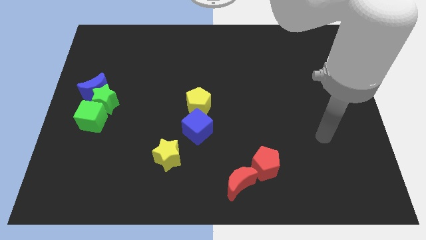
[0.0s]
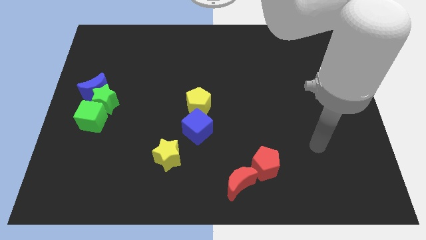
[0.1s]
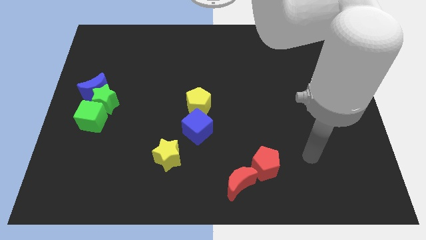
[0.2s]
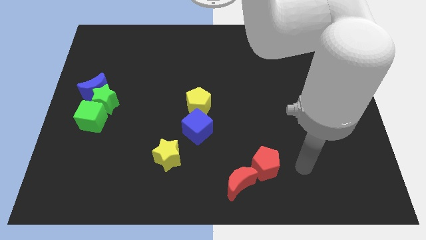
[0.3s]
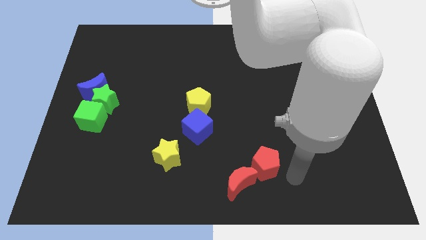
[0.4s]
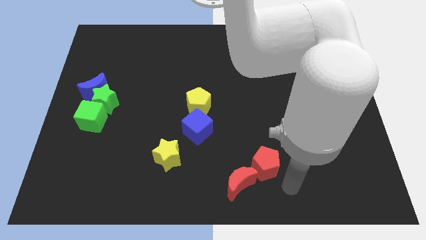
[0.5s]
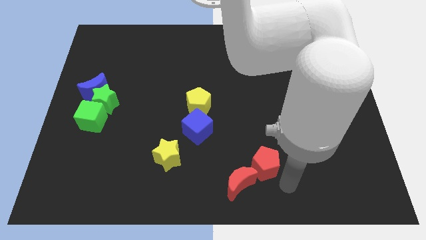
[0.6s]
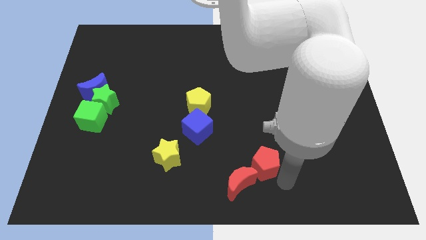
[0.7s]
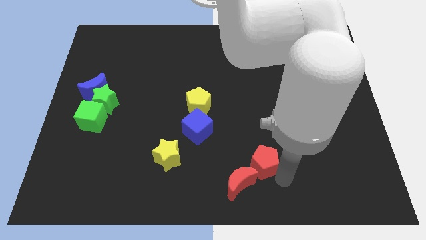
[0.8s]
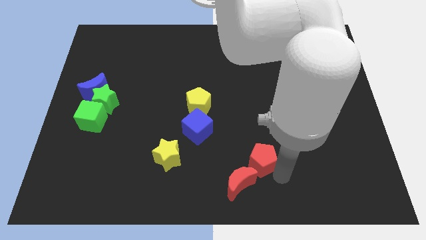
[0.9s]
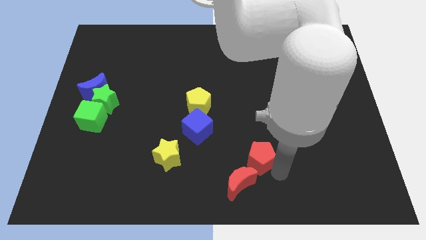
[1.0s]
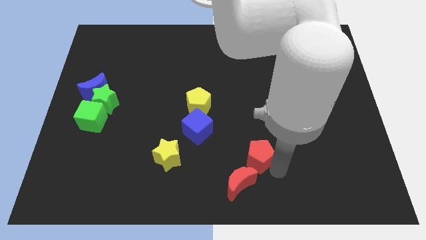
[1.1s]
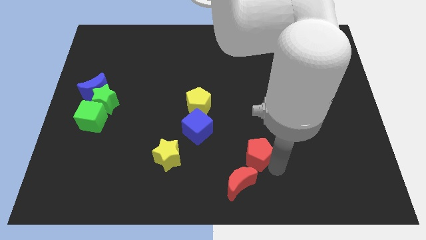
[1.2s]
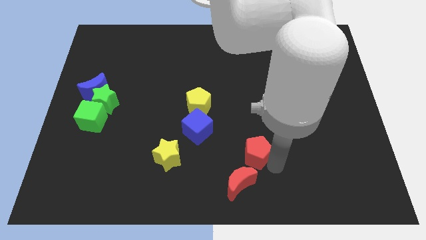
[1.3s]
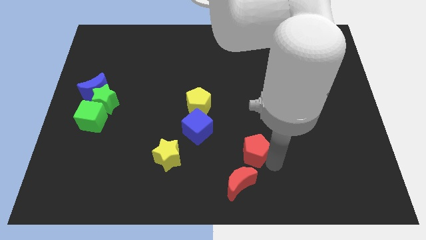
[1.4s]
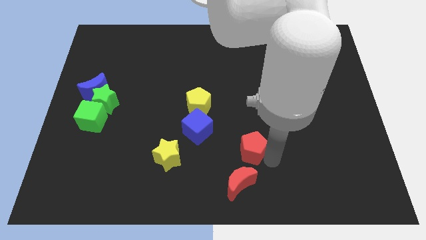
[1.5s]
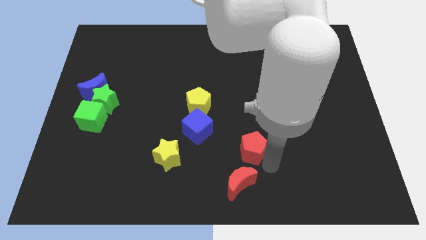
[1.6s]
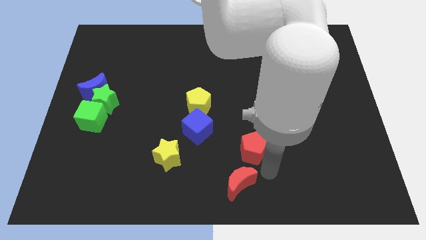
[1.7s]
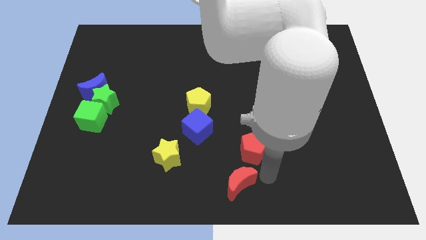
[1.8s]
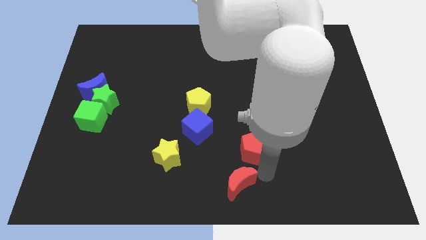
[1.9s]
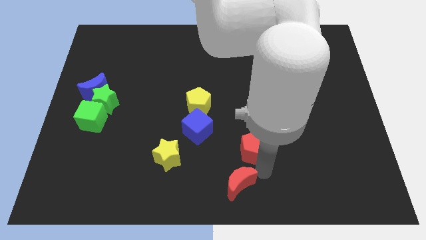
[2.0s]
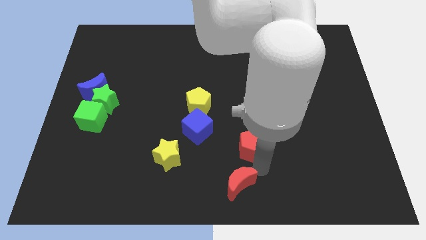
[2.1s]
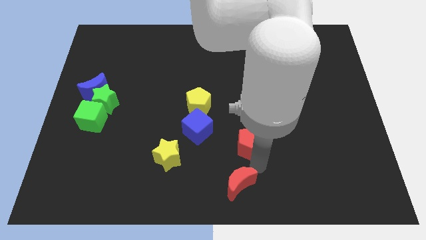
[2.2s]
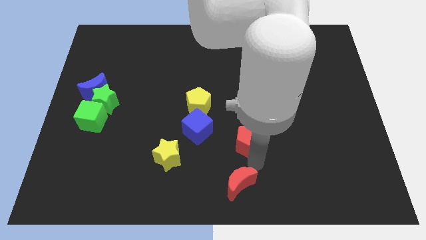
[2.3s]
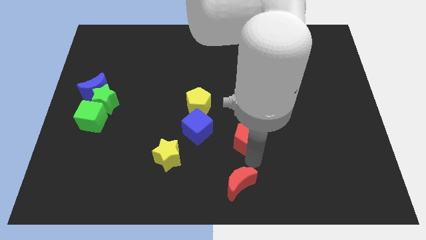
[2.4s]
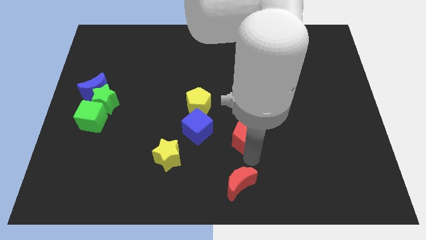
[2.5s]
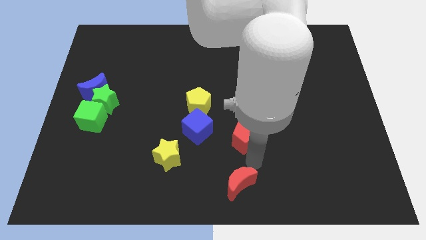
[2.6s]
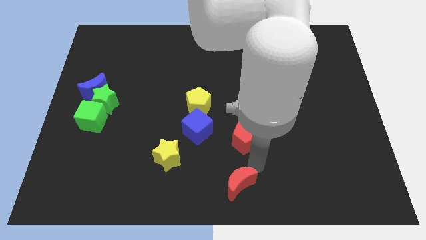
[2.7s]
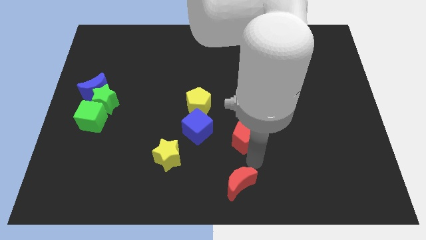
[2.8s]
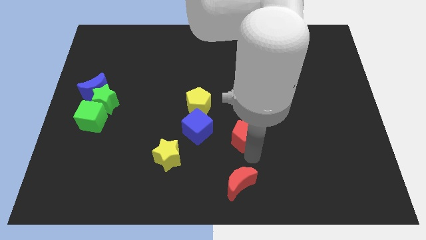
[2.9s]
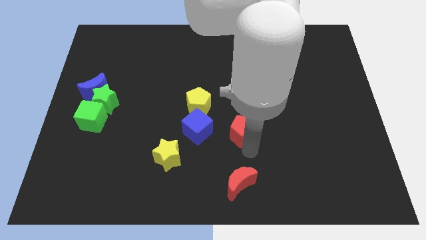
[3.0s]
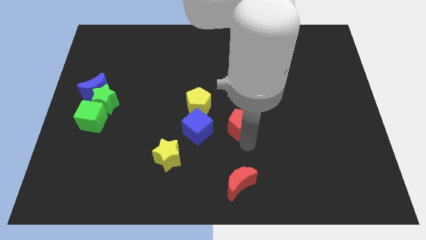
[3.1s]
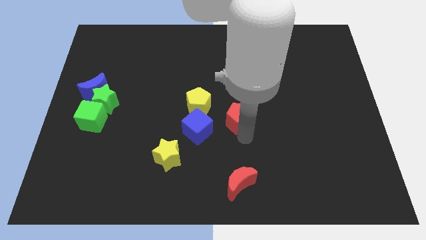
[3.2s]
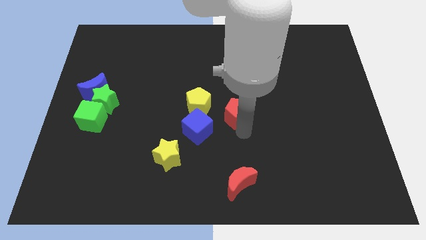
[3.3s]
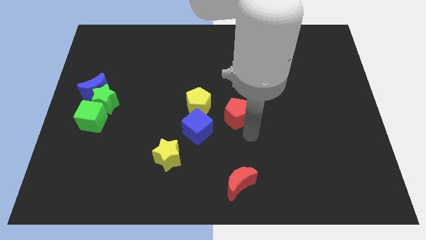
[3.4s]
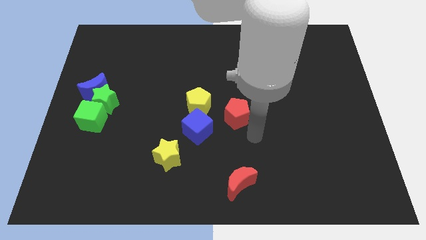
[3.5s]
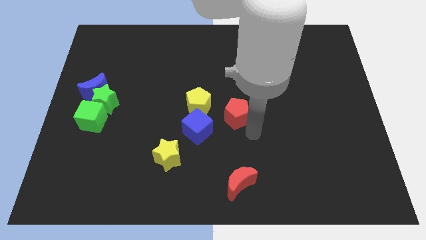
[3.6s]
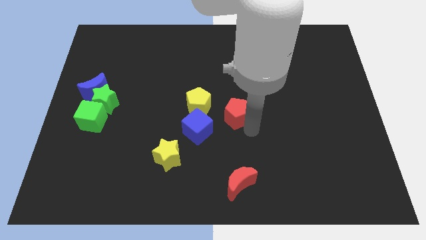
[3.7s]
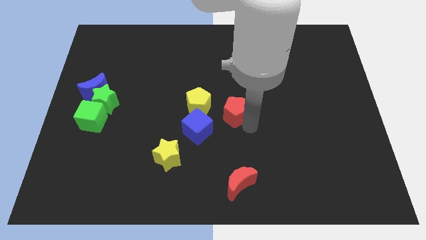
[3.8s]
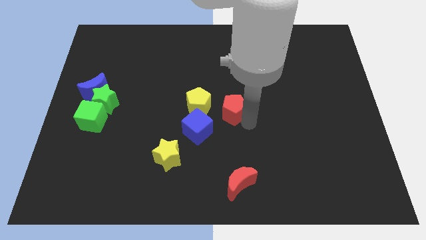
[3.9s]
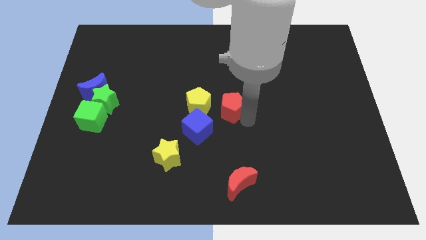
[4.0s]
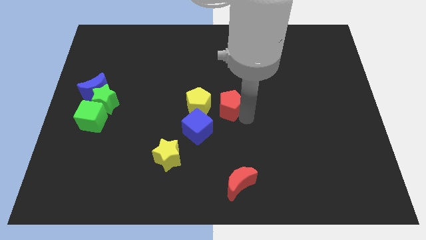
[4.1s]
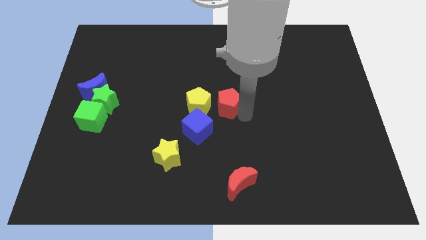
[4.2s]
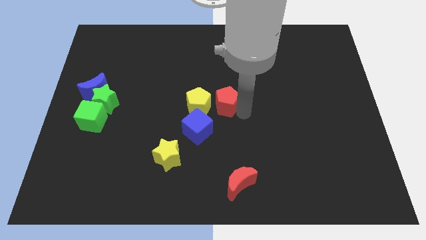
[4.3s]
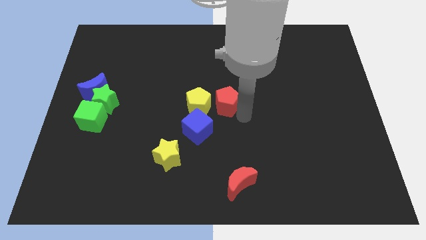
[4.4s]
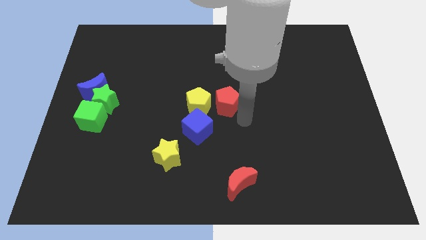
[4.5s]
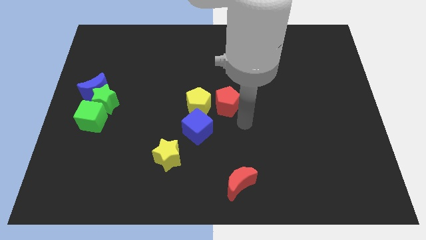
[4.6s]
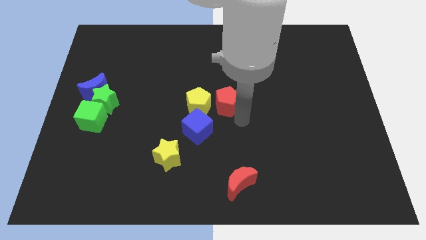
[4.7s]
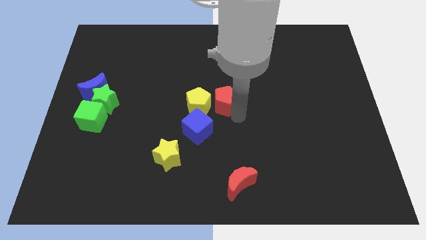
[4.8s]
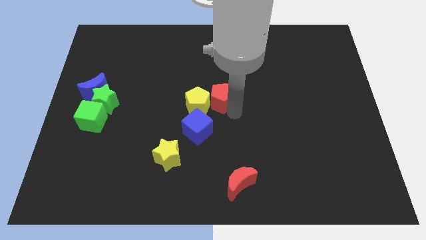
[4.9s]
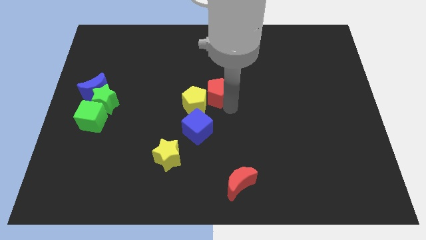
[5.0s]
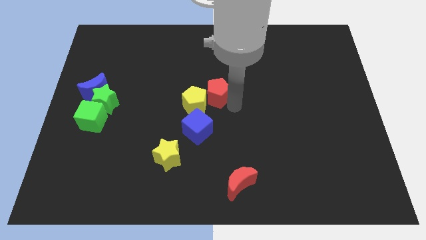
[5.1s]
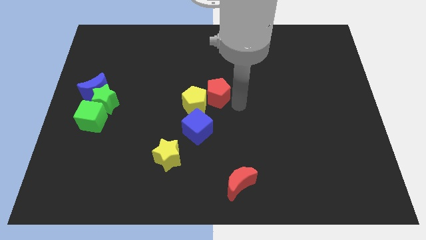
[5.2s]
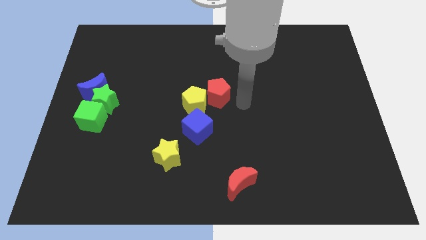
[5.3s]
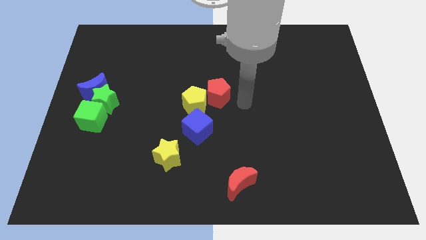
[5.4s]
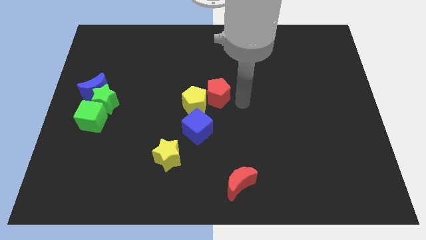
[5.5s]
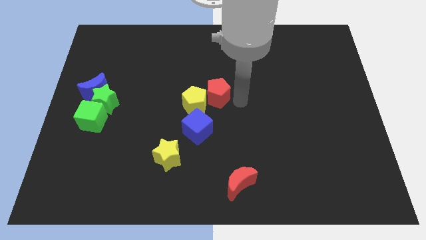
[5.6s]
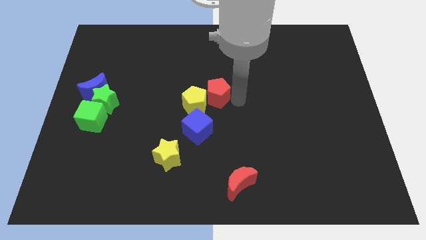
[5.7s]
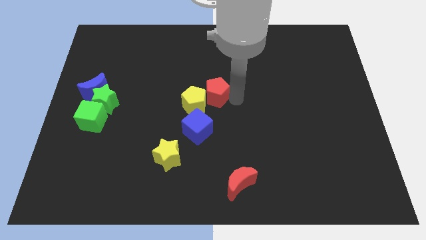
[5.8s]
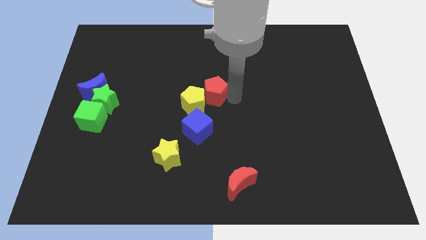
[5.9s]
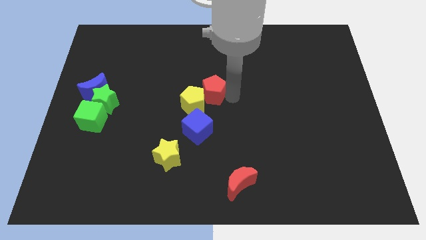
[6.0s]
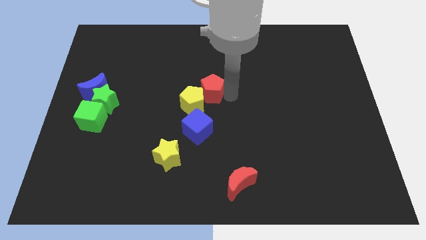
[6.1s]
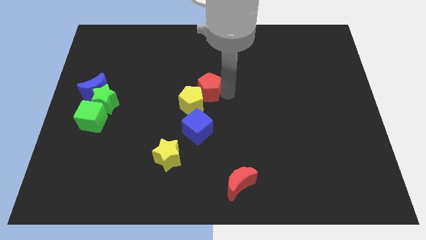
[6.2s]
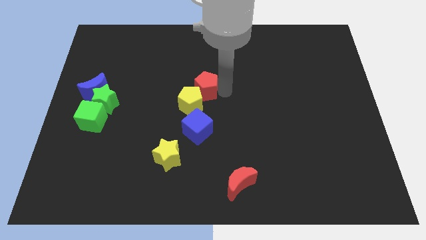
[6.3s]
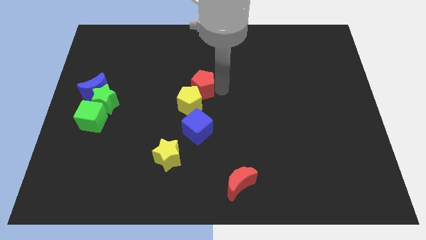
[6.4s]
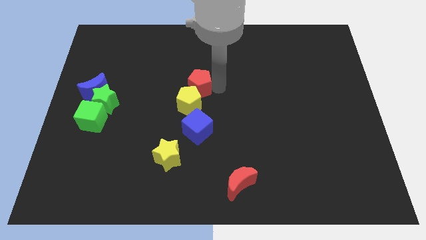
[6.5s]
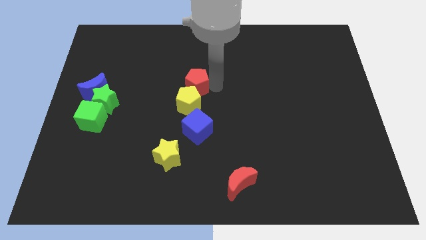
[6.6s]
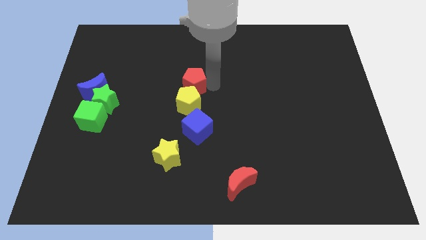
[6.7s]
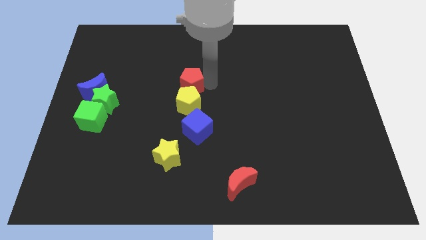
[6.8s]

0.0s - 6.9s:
push the red pentagon to the top left side of the yellow pentagon
